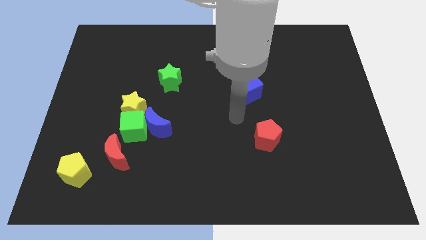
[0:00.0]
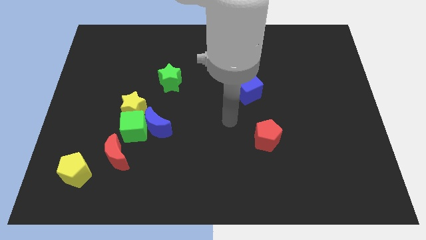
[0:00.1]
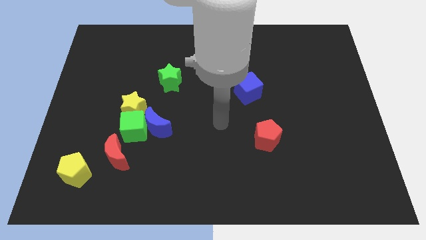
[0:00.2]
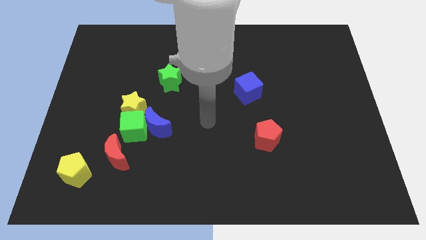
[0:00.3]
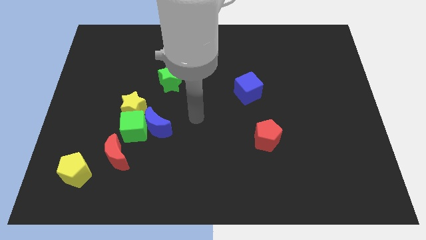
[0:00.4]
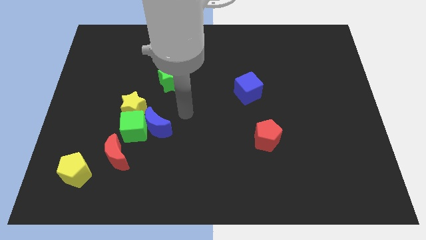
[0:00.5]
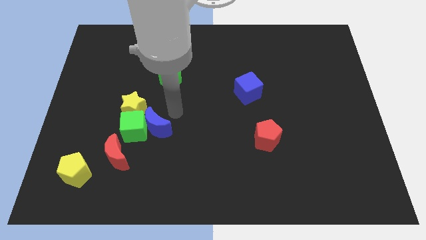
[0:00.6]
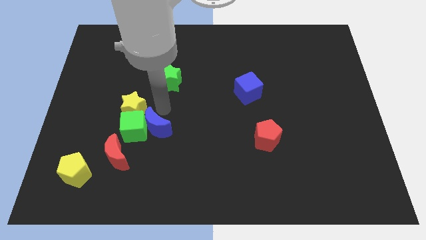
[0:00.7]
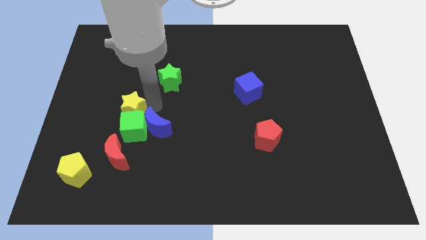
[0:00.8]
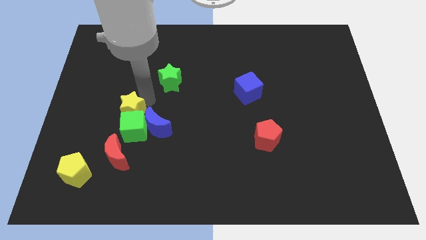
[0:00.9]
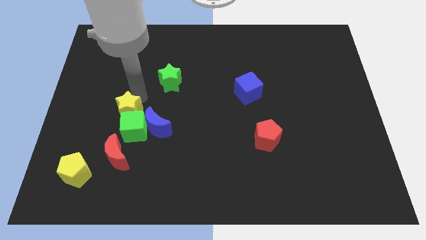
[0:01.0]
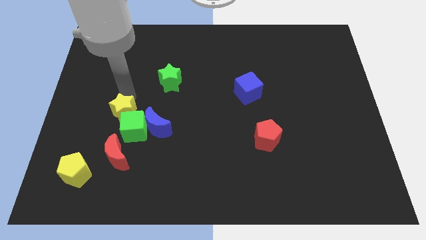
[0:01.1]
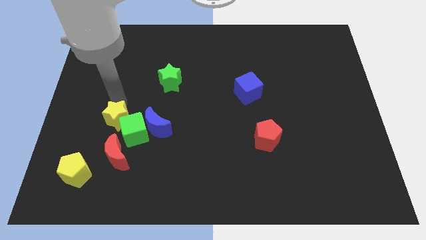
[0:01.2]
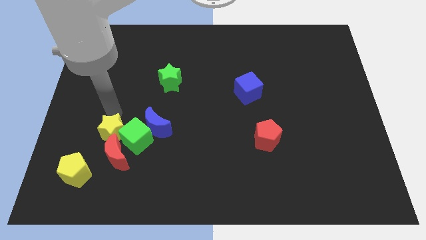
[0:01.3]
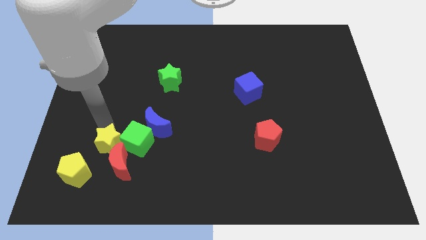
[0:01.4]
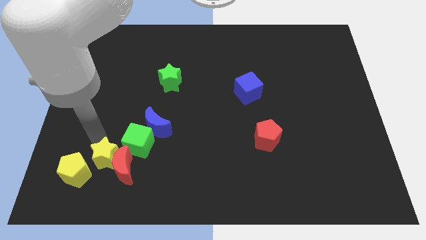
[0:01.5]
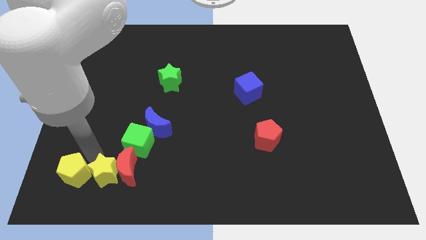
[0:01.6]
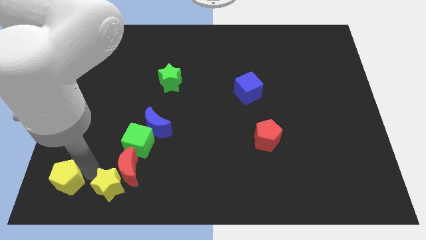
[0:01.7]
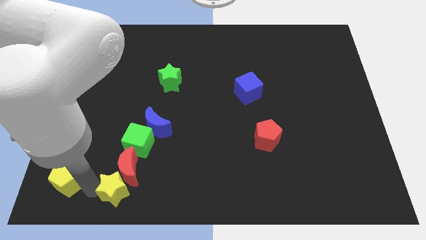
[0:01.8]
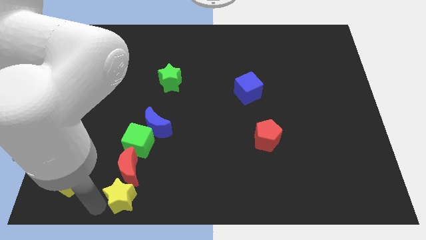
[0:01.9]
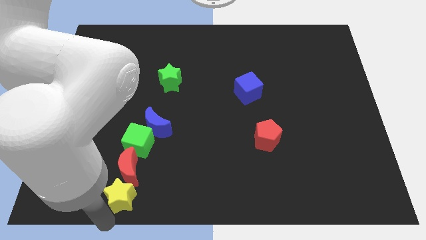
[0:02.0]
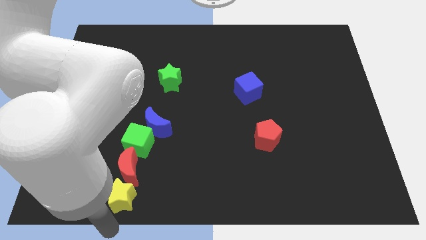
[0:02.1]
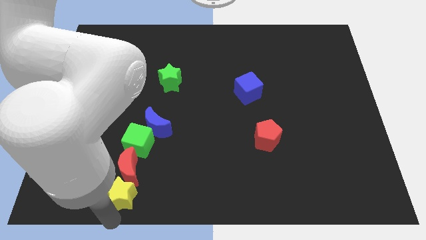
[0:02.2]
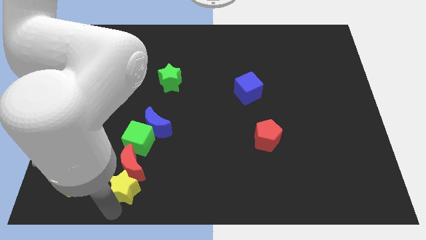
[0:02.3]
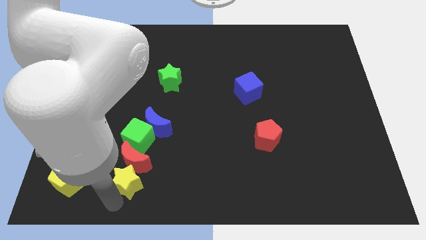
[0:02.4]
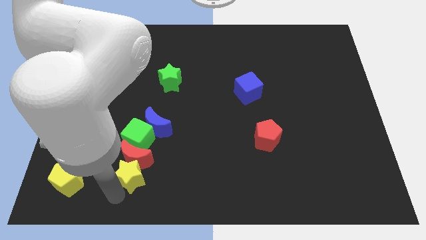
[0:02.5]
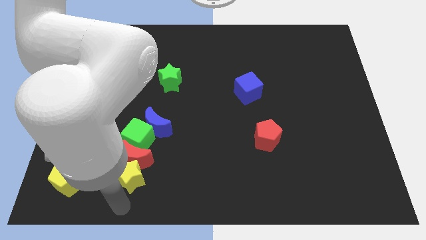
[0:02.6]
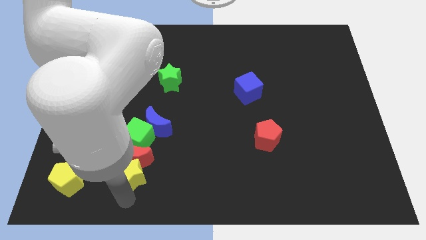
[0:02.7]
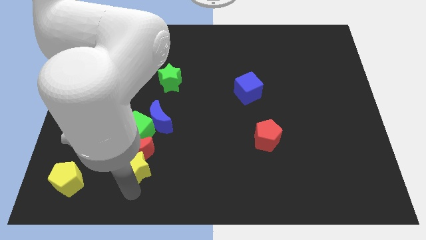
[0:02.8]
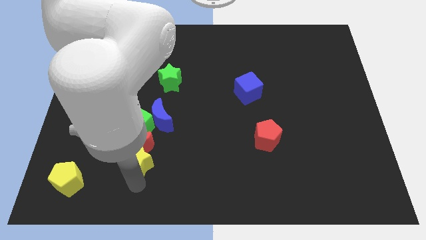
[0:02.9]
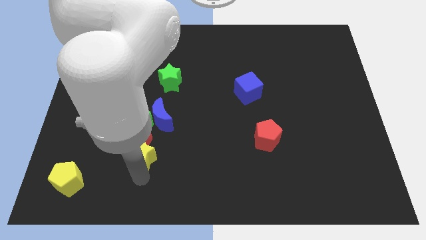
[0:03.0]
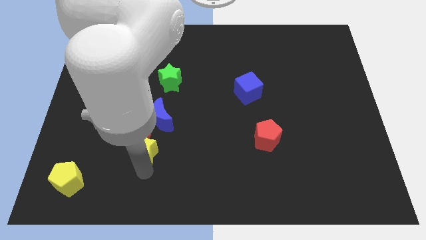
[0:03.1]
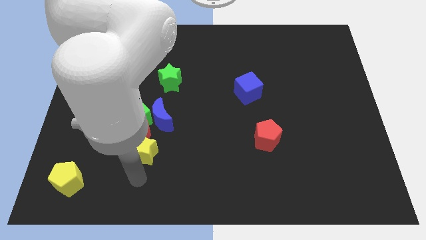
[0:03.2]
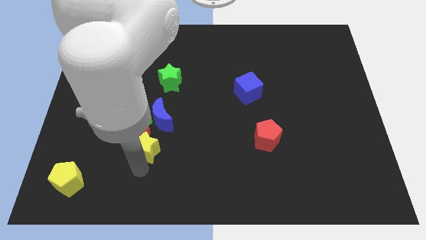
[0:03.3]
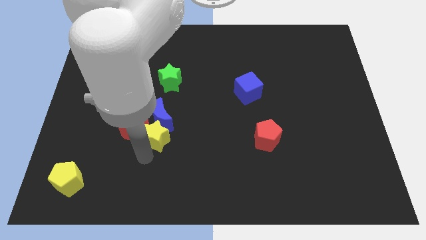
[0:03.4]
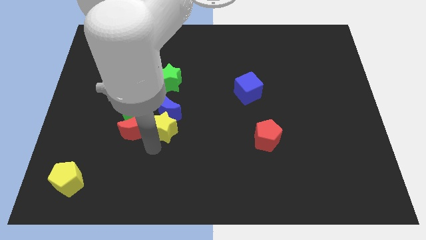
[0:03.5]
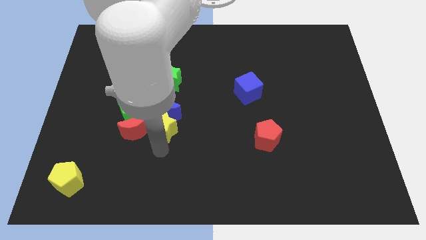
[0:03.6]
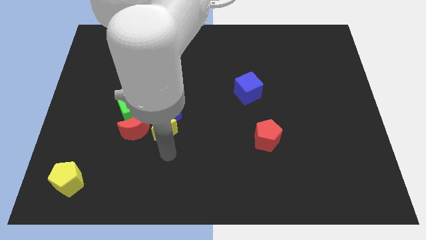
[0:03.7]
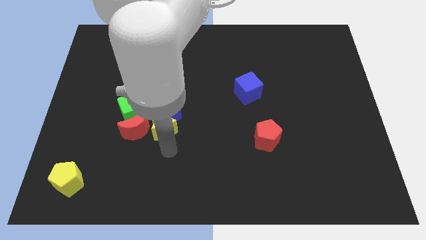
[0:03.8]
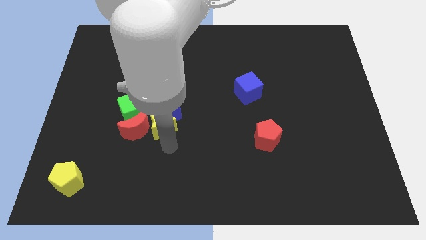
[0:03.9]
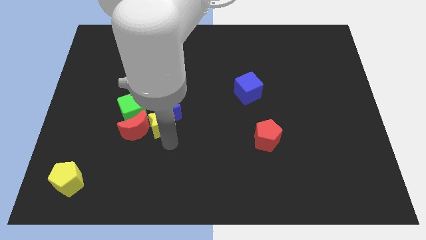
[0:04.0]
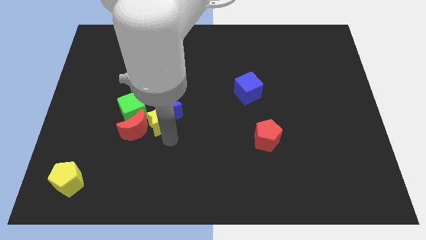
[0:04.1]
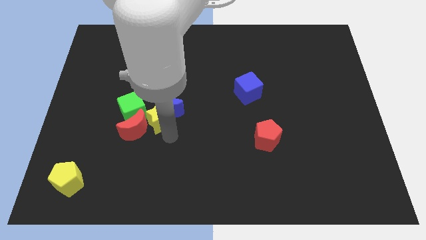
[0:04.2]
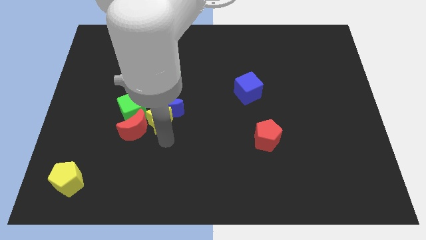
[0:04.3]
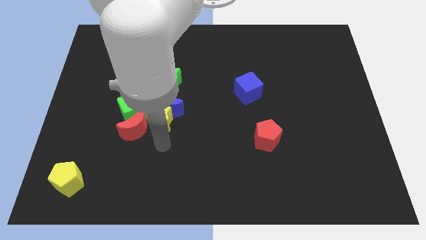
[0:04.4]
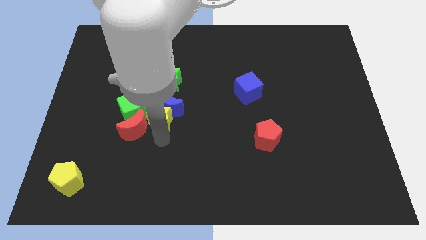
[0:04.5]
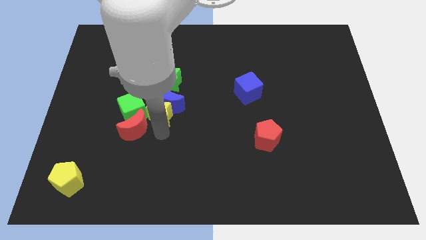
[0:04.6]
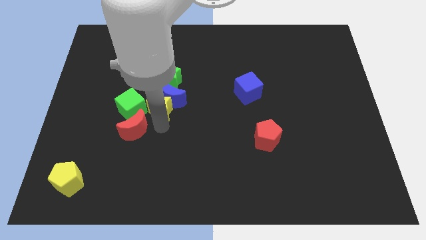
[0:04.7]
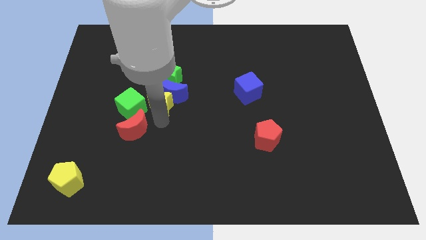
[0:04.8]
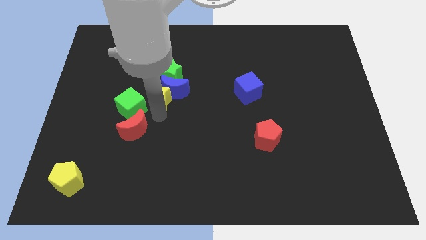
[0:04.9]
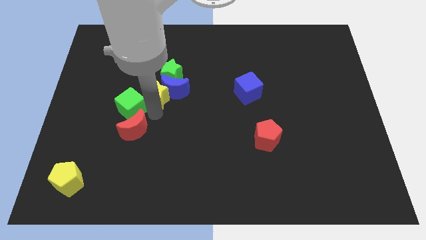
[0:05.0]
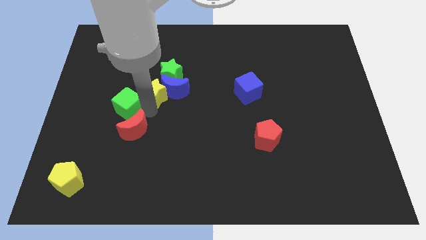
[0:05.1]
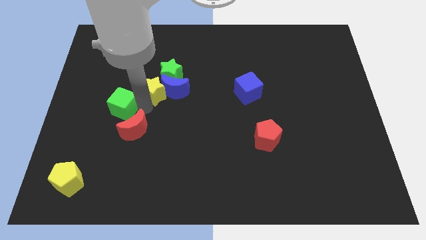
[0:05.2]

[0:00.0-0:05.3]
slightly push the yellow star upwards and then right

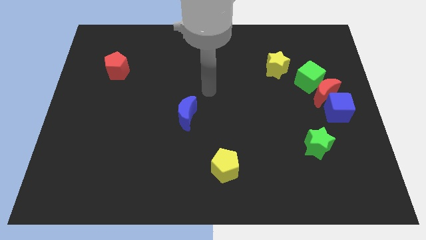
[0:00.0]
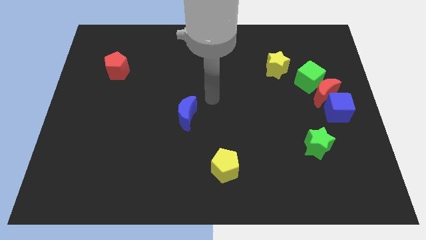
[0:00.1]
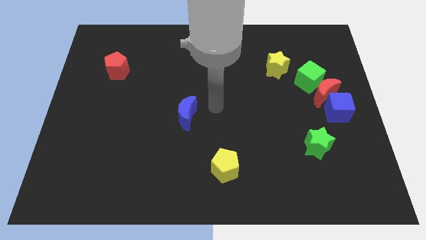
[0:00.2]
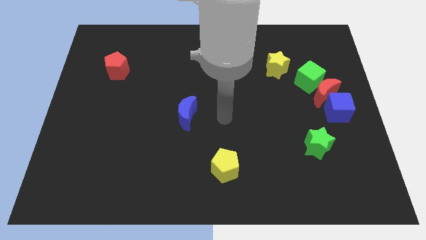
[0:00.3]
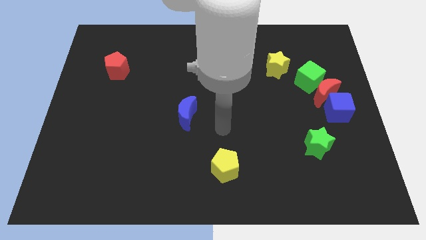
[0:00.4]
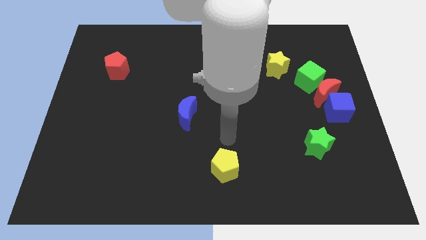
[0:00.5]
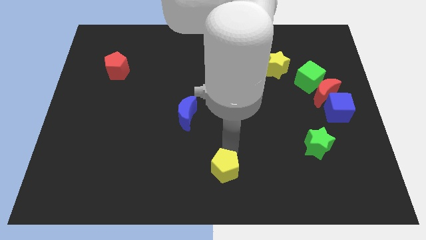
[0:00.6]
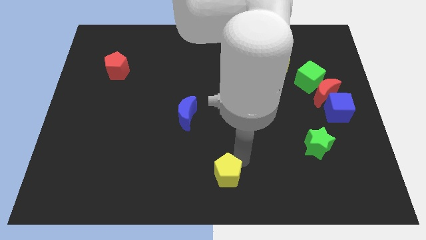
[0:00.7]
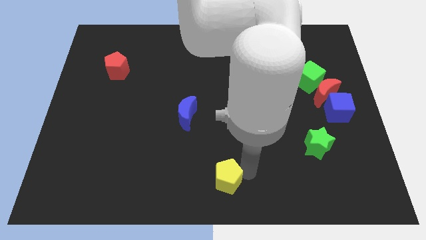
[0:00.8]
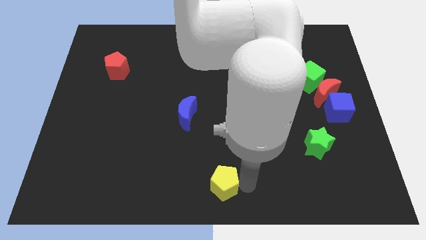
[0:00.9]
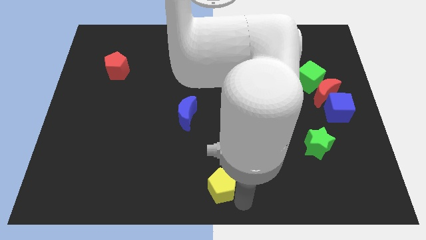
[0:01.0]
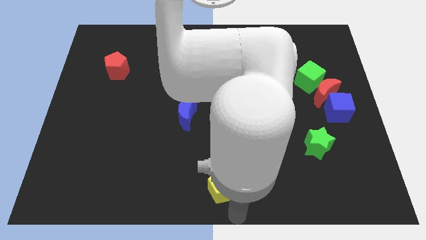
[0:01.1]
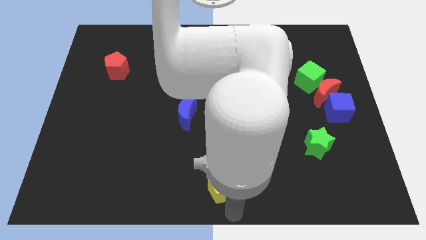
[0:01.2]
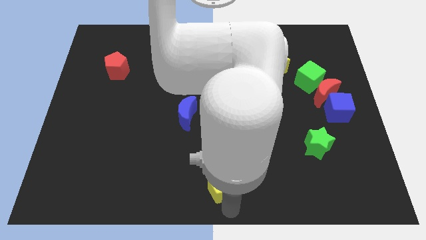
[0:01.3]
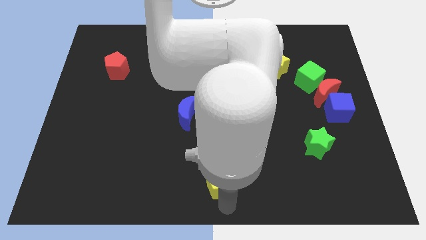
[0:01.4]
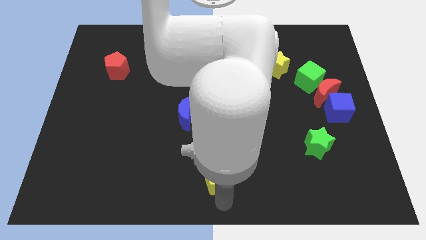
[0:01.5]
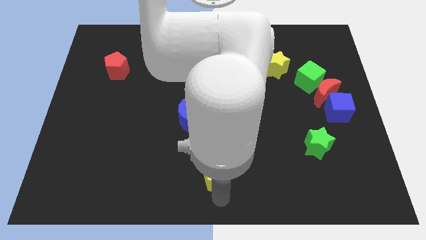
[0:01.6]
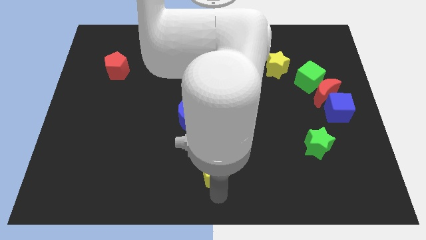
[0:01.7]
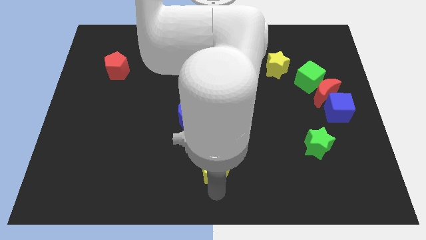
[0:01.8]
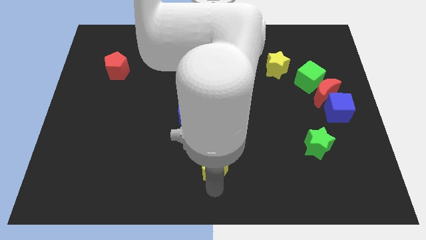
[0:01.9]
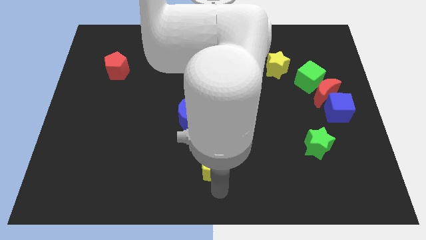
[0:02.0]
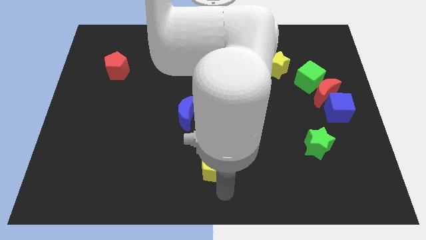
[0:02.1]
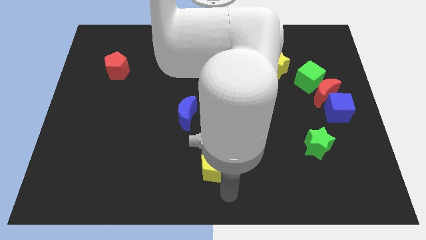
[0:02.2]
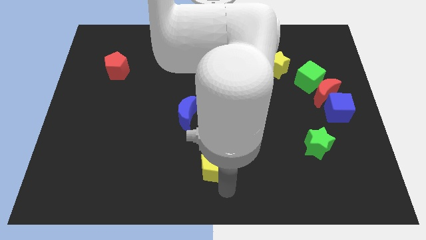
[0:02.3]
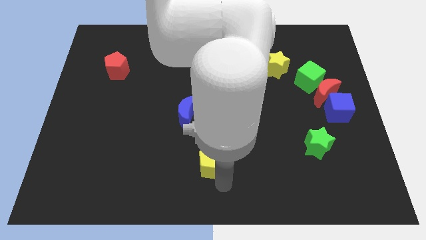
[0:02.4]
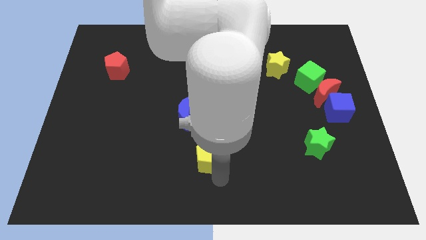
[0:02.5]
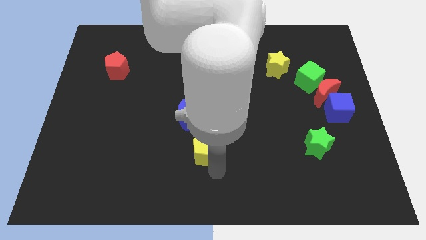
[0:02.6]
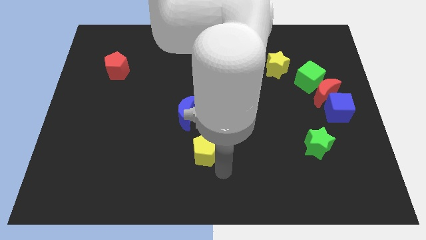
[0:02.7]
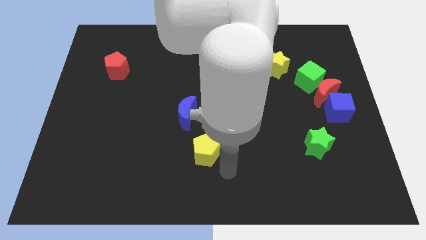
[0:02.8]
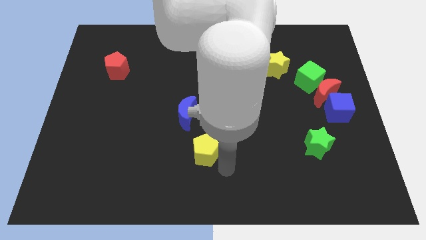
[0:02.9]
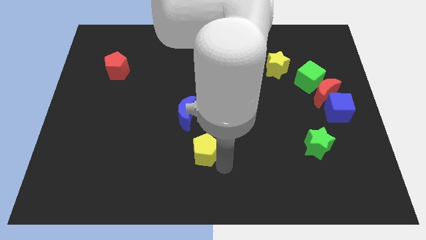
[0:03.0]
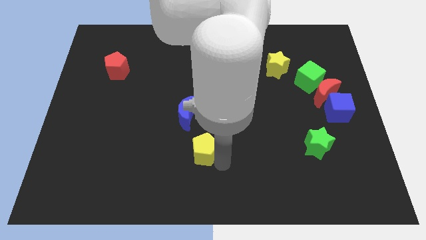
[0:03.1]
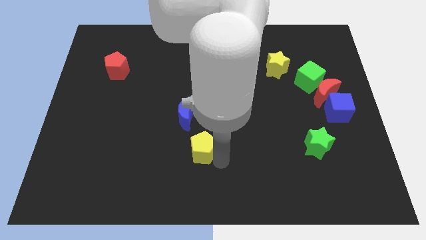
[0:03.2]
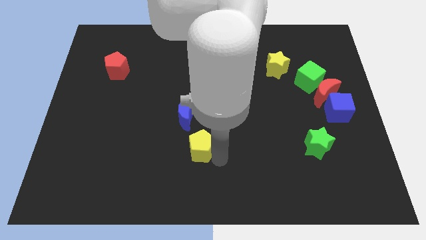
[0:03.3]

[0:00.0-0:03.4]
slightly move the yellow pentagon up and to the left
